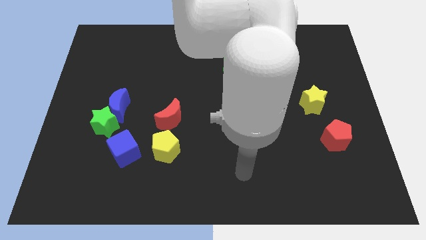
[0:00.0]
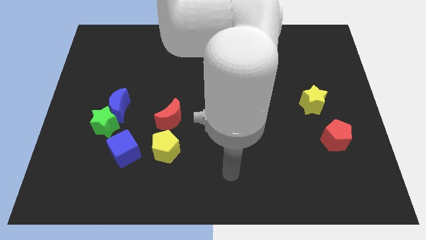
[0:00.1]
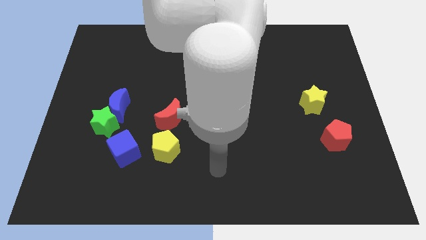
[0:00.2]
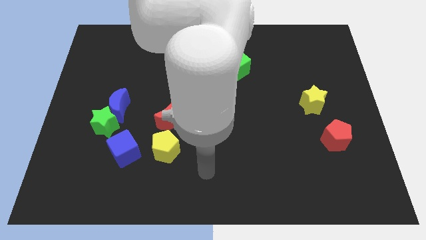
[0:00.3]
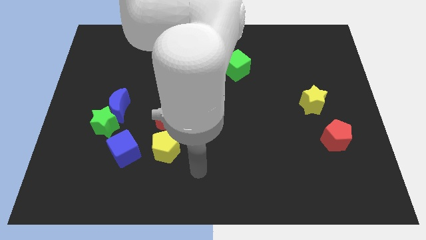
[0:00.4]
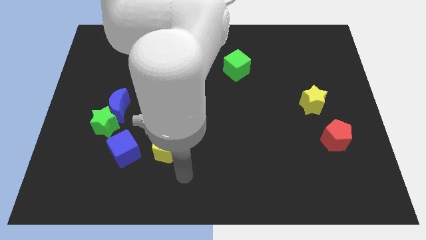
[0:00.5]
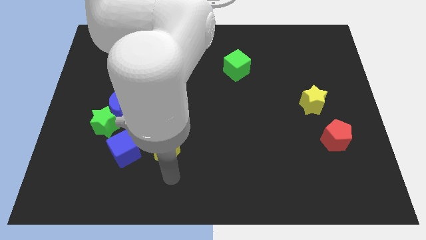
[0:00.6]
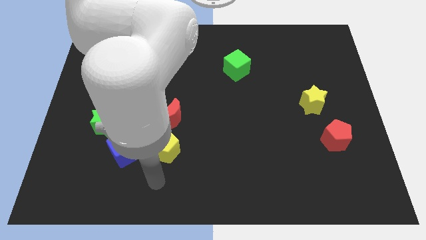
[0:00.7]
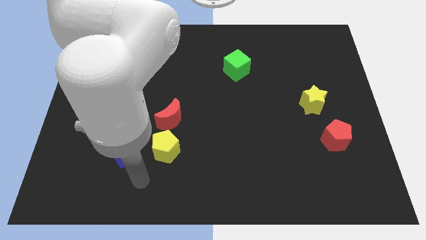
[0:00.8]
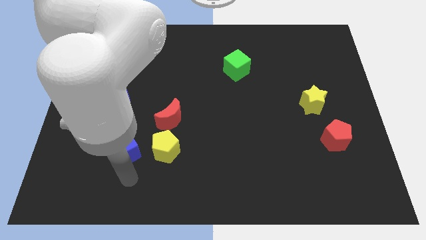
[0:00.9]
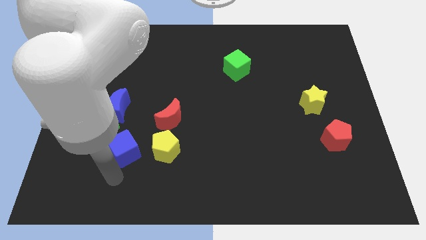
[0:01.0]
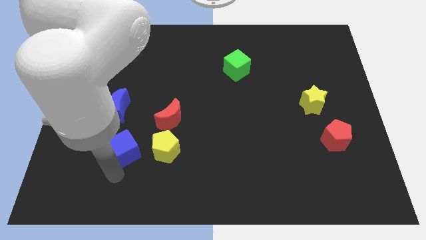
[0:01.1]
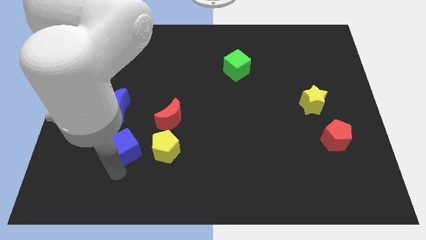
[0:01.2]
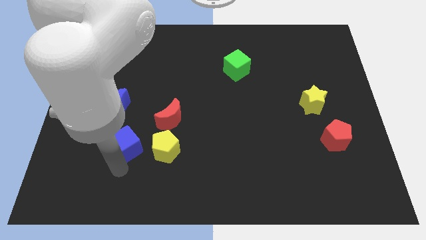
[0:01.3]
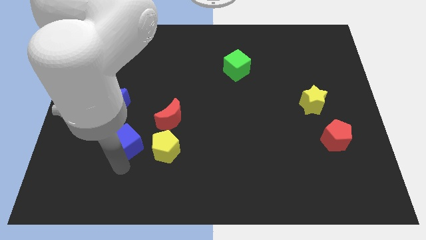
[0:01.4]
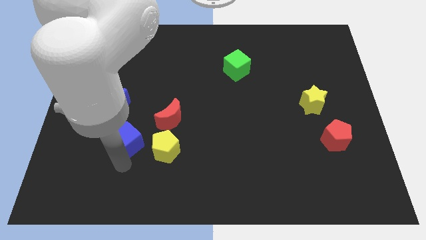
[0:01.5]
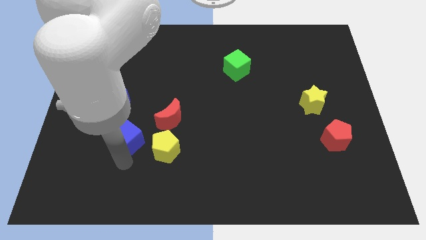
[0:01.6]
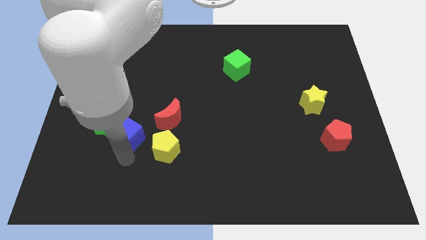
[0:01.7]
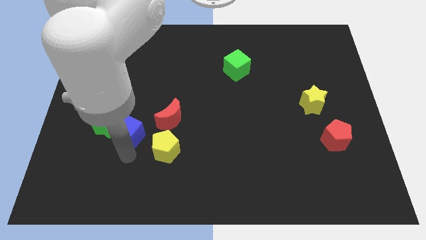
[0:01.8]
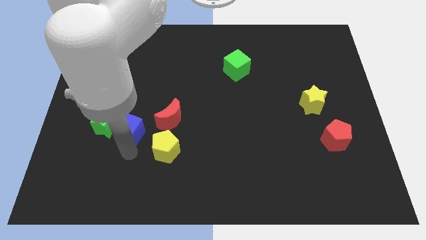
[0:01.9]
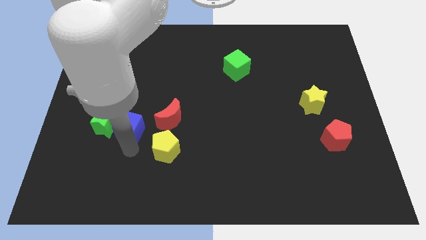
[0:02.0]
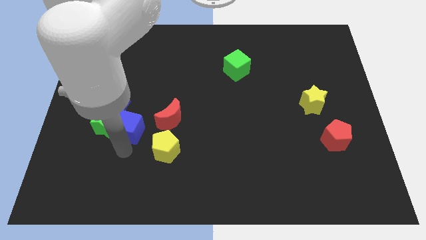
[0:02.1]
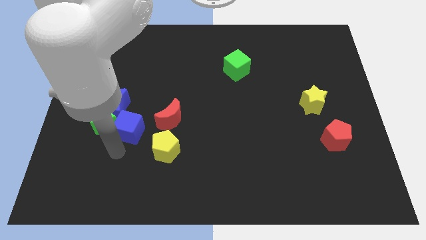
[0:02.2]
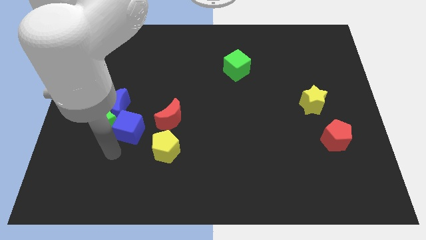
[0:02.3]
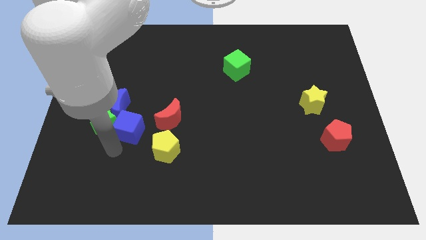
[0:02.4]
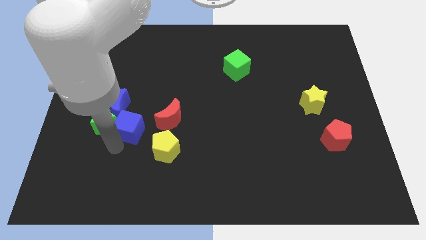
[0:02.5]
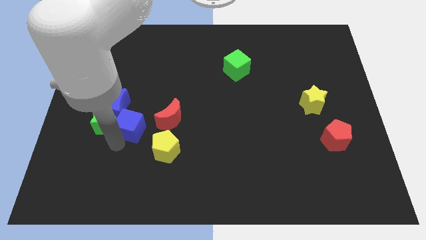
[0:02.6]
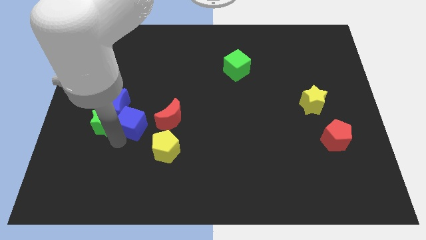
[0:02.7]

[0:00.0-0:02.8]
push the blue cube upwards a bit

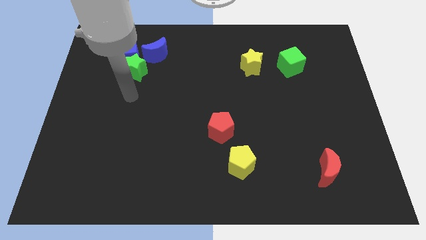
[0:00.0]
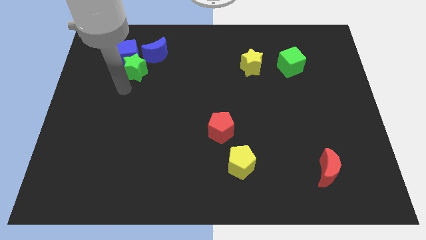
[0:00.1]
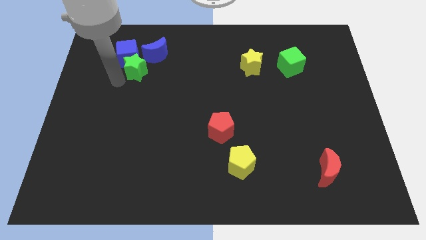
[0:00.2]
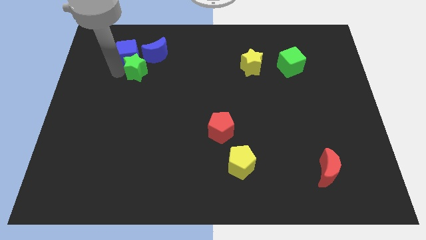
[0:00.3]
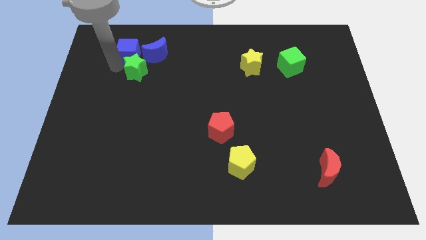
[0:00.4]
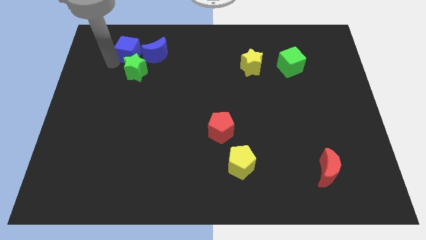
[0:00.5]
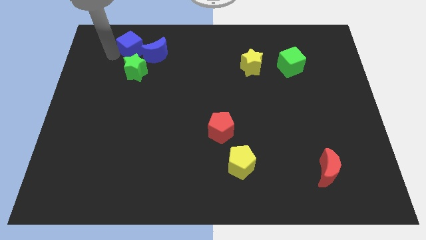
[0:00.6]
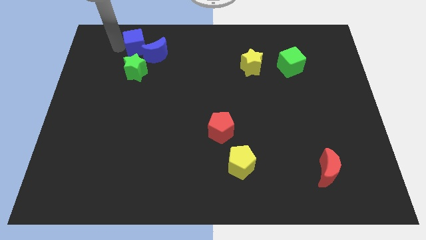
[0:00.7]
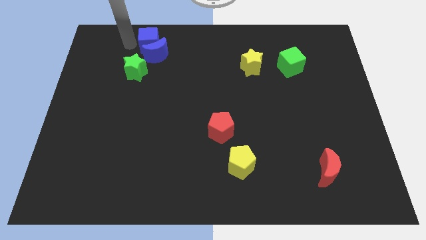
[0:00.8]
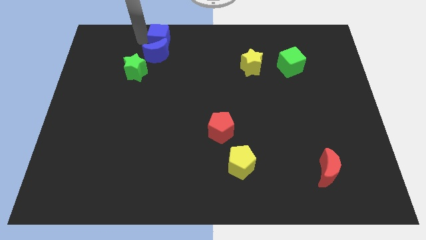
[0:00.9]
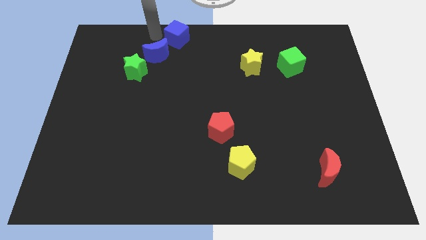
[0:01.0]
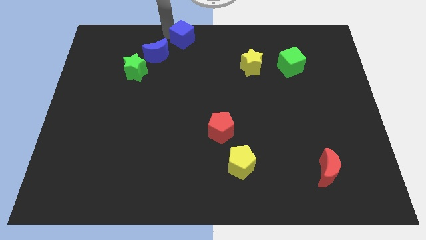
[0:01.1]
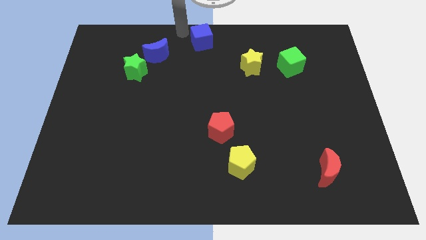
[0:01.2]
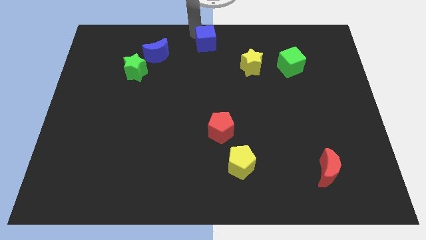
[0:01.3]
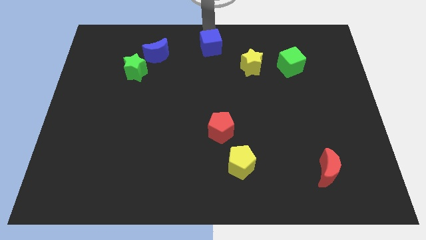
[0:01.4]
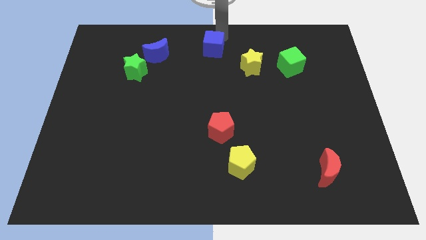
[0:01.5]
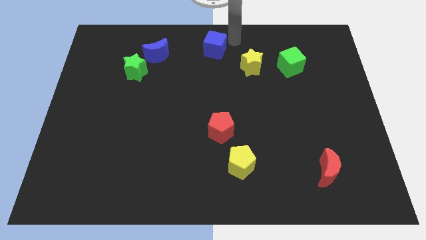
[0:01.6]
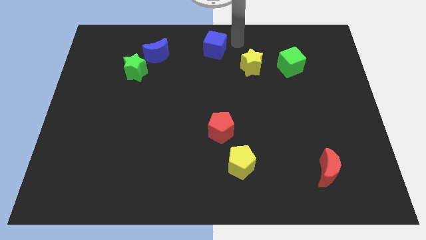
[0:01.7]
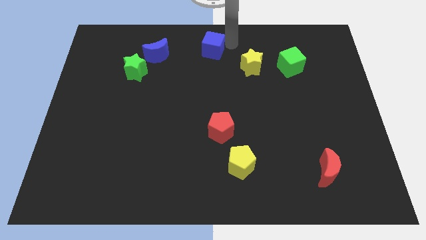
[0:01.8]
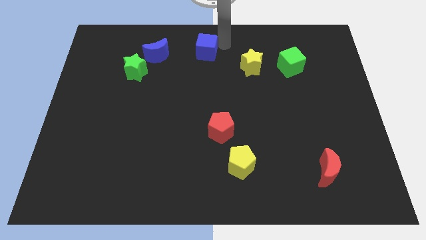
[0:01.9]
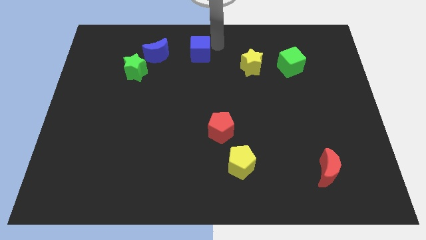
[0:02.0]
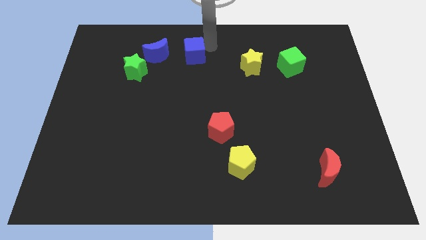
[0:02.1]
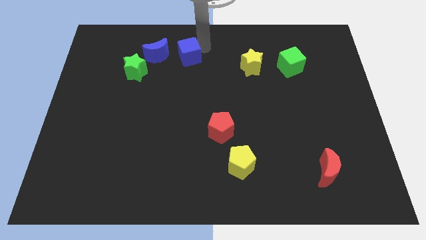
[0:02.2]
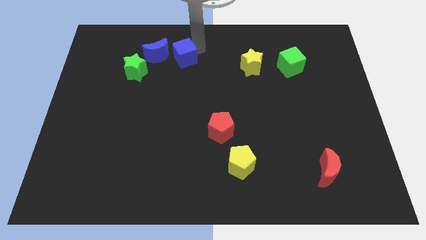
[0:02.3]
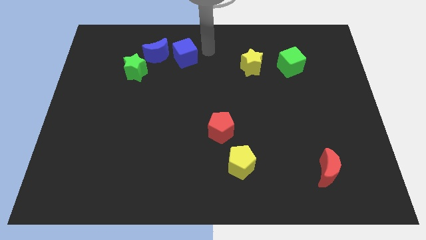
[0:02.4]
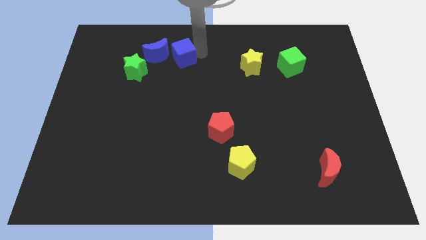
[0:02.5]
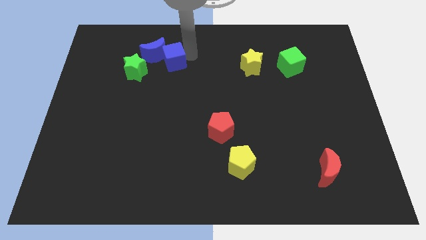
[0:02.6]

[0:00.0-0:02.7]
slightly slide the blue cube down and right diagonally

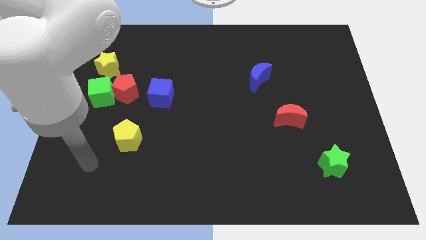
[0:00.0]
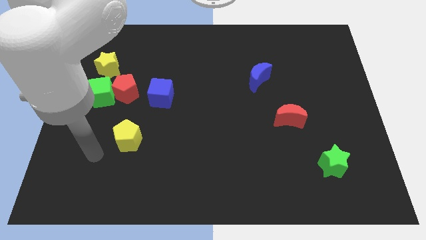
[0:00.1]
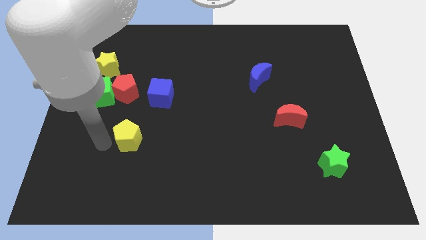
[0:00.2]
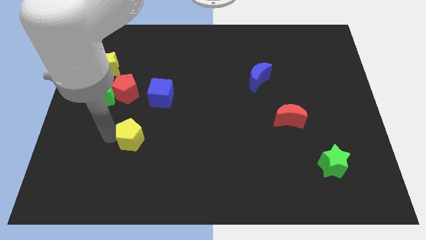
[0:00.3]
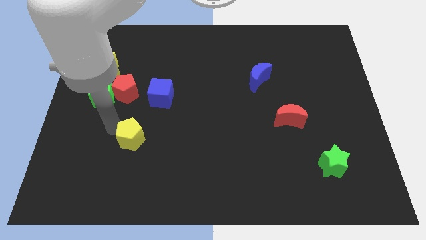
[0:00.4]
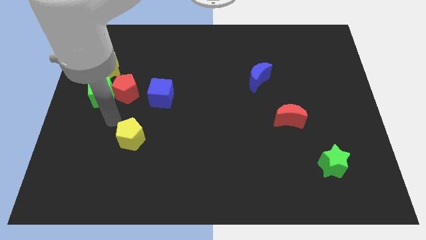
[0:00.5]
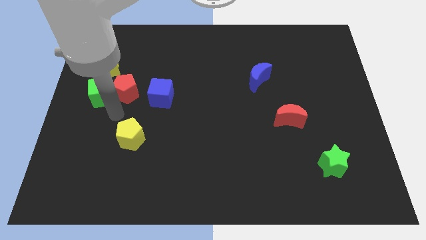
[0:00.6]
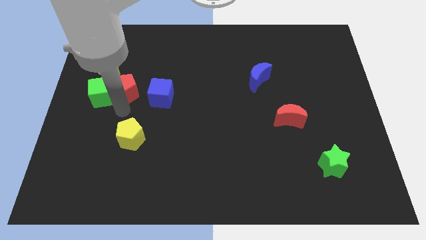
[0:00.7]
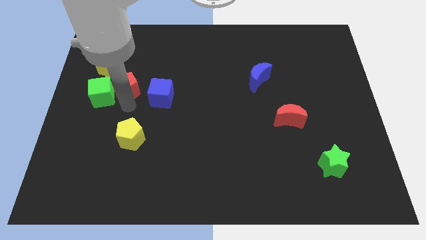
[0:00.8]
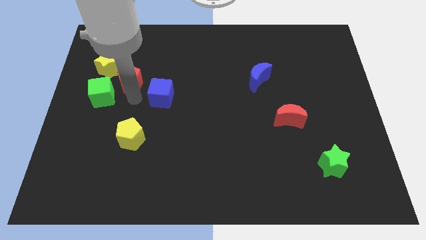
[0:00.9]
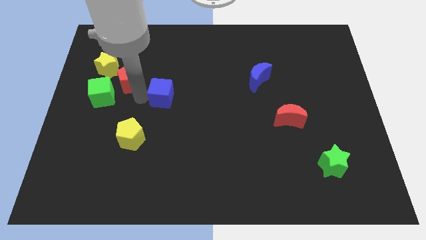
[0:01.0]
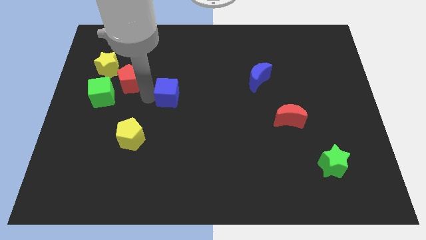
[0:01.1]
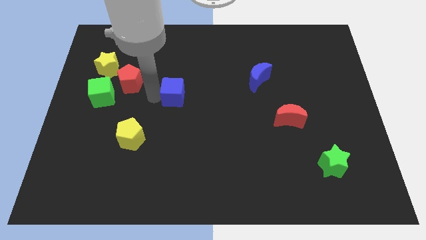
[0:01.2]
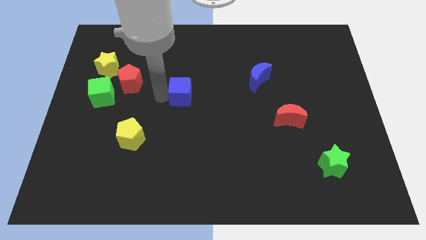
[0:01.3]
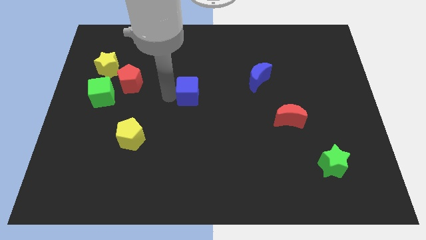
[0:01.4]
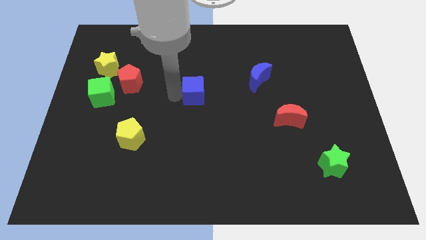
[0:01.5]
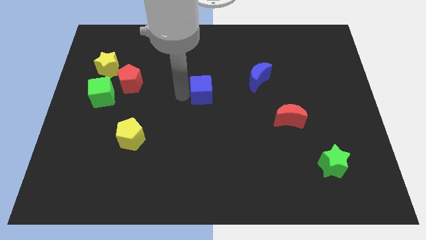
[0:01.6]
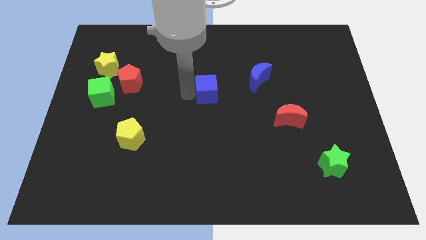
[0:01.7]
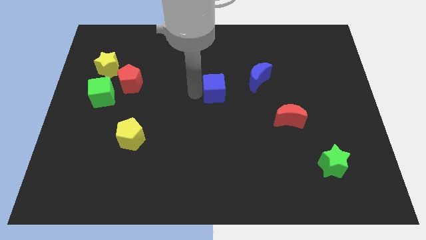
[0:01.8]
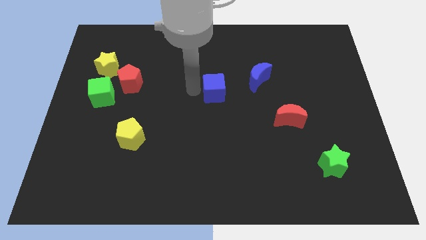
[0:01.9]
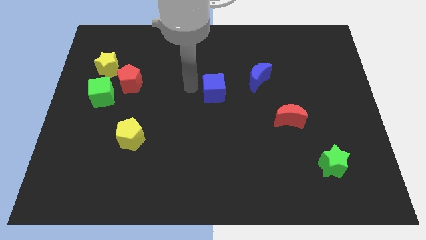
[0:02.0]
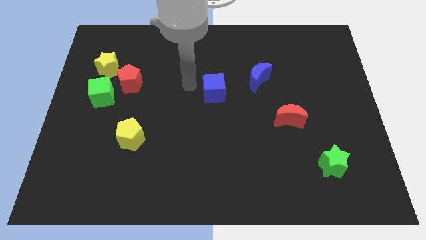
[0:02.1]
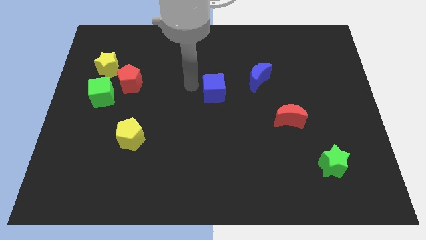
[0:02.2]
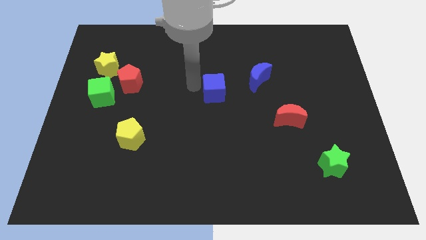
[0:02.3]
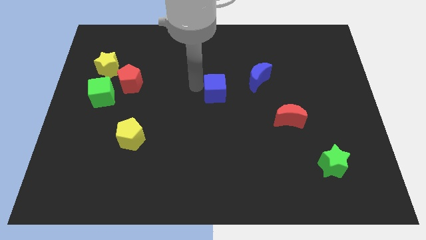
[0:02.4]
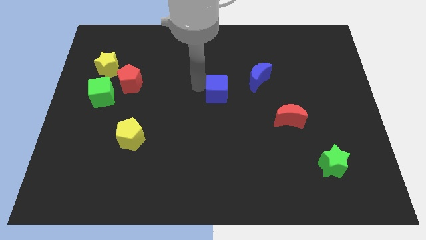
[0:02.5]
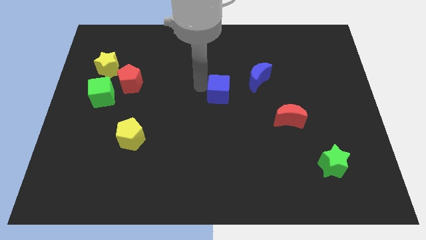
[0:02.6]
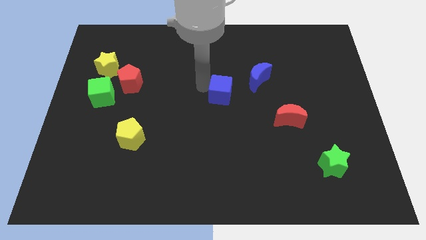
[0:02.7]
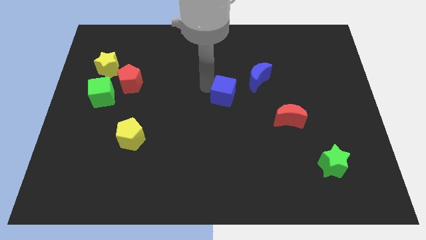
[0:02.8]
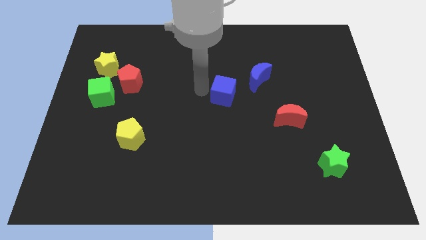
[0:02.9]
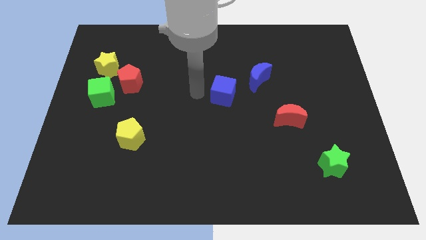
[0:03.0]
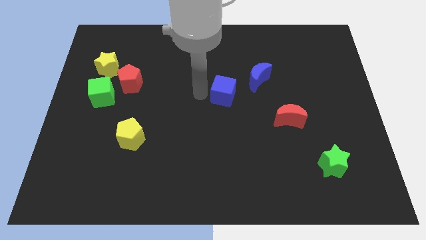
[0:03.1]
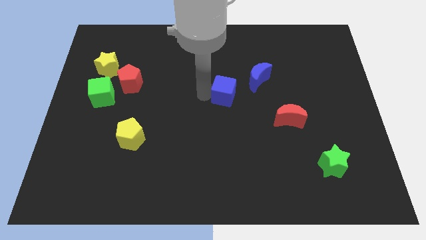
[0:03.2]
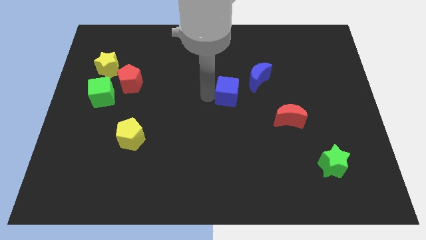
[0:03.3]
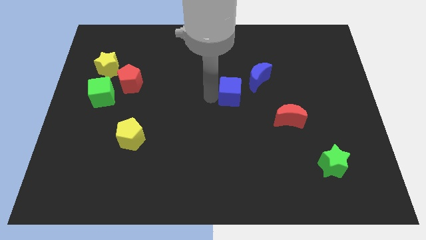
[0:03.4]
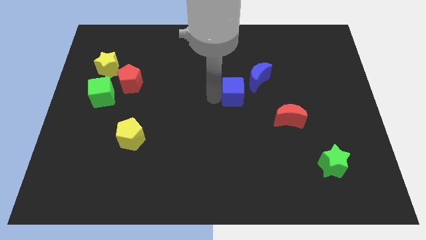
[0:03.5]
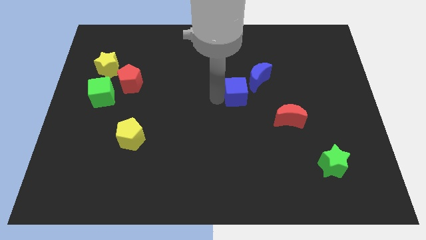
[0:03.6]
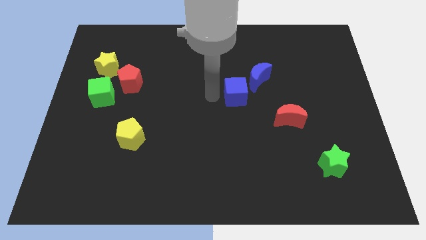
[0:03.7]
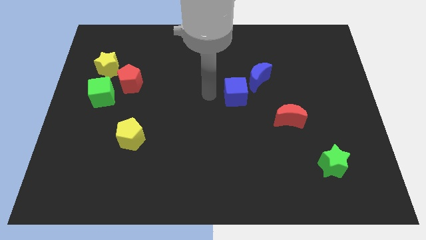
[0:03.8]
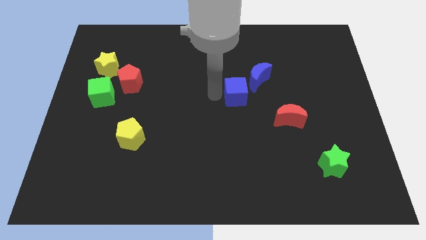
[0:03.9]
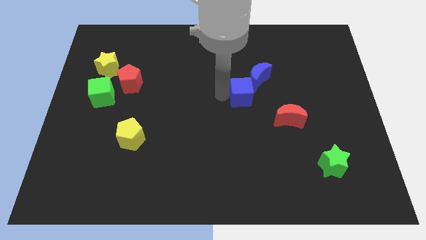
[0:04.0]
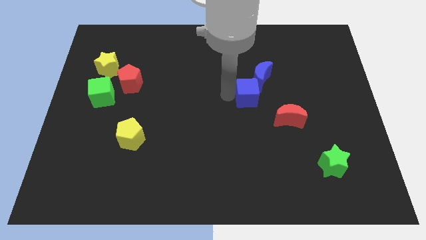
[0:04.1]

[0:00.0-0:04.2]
move the blue cube right
